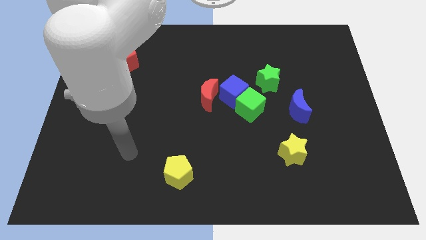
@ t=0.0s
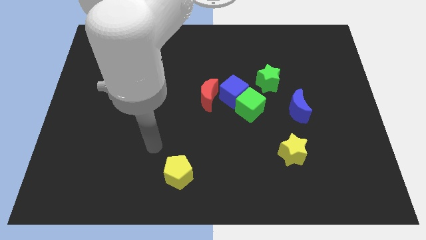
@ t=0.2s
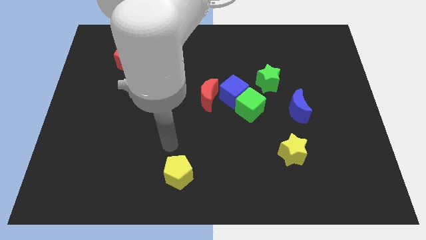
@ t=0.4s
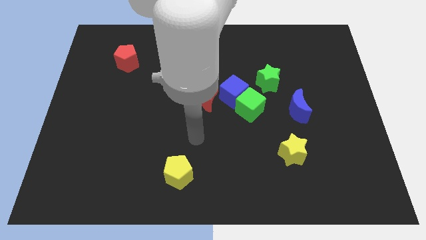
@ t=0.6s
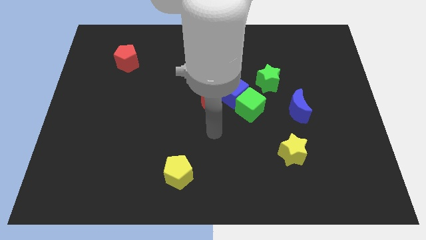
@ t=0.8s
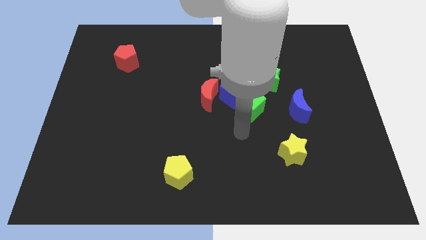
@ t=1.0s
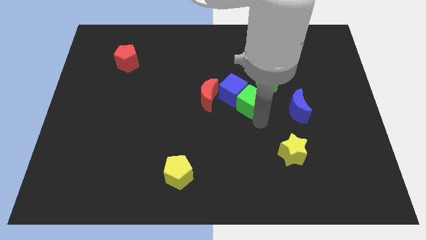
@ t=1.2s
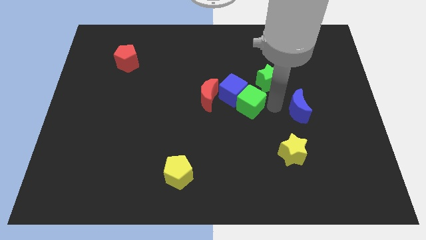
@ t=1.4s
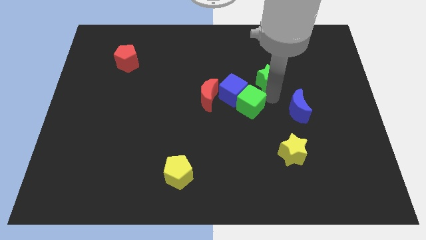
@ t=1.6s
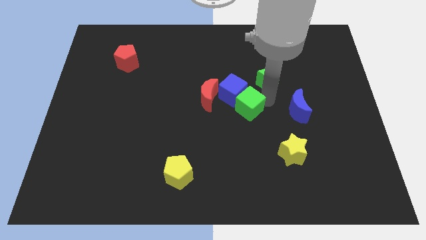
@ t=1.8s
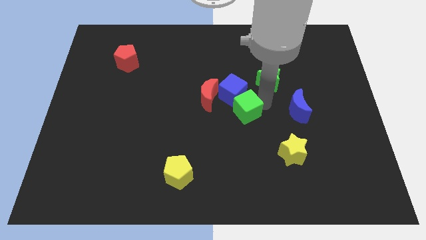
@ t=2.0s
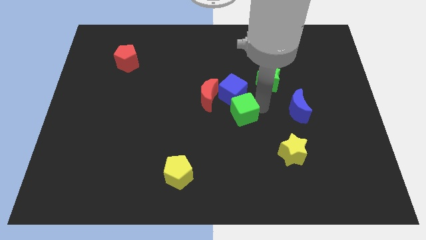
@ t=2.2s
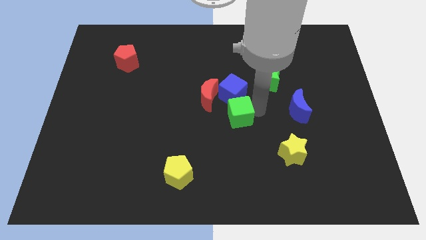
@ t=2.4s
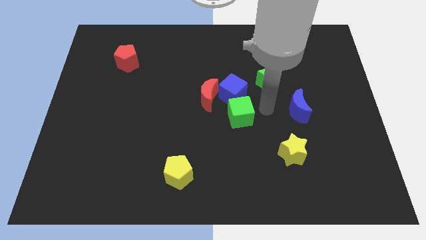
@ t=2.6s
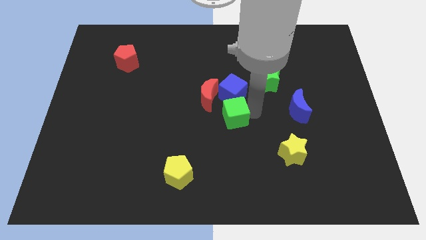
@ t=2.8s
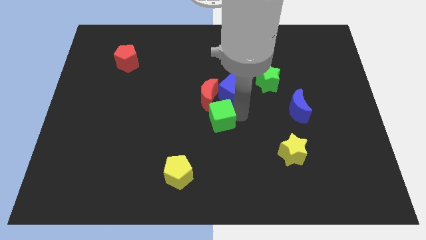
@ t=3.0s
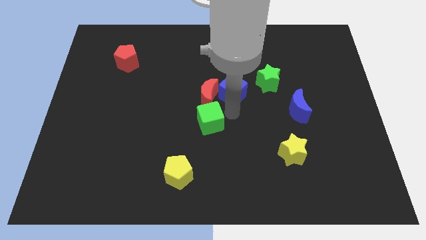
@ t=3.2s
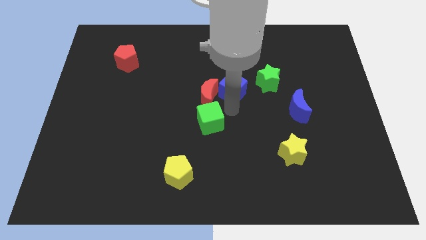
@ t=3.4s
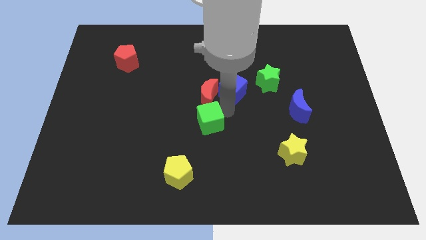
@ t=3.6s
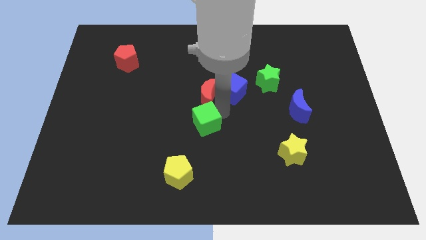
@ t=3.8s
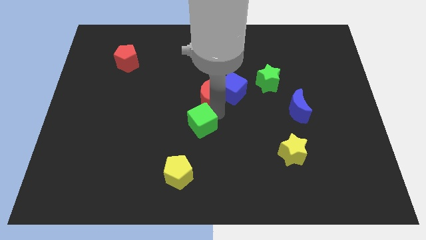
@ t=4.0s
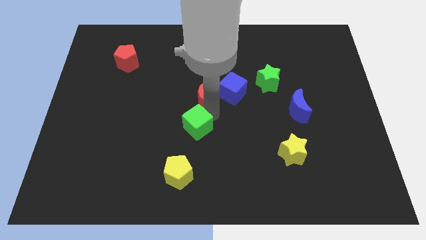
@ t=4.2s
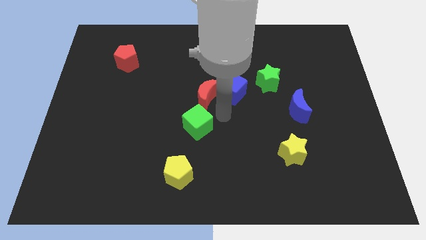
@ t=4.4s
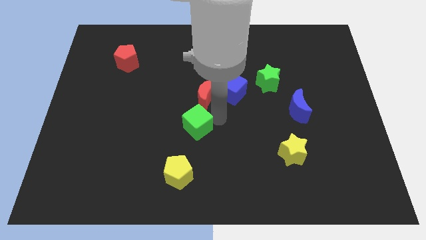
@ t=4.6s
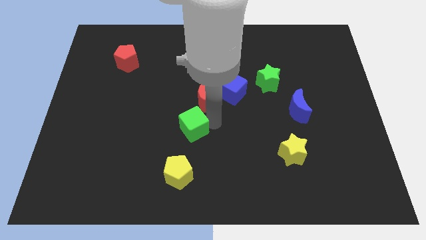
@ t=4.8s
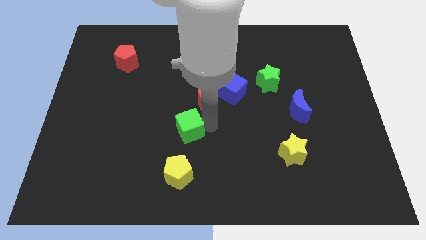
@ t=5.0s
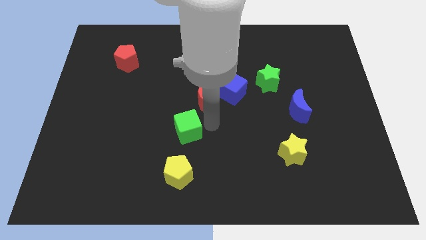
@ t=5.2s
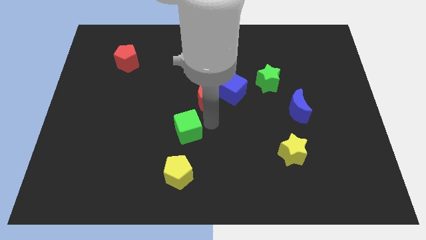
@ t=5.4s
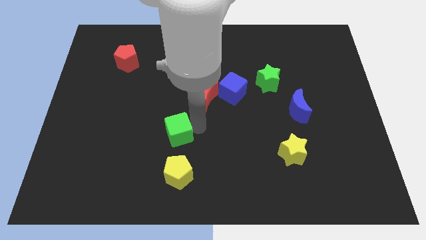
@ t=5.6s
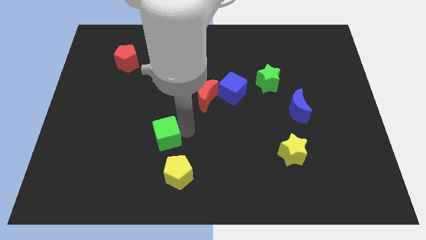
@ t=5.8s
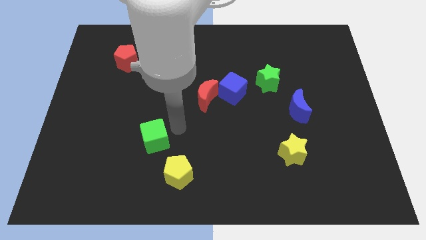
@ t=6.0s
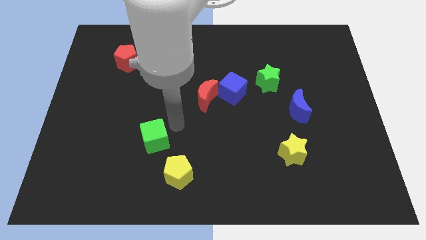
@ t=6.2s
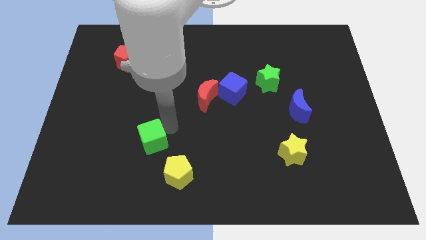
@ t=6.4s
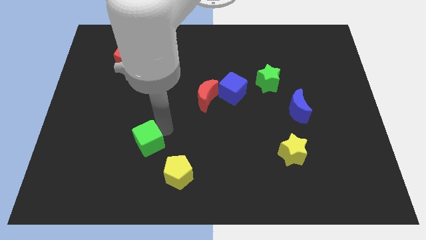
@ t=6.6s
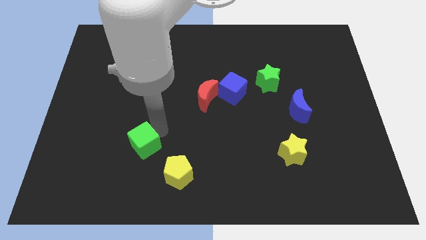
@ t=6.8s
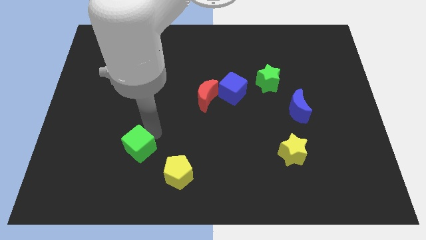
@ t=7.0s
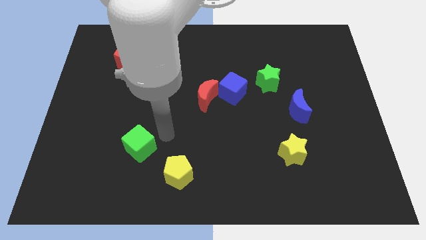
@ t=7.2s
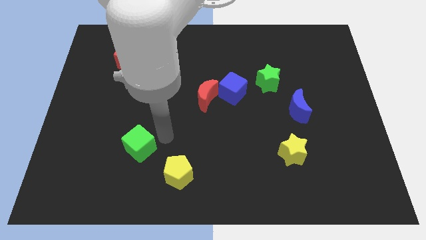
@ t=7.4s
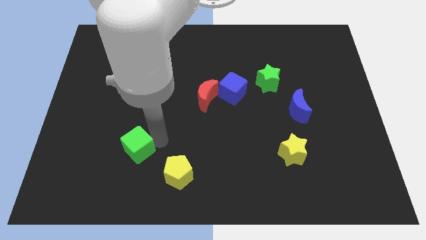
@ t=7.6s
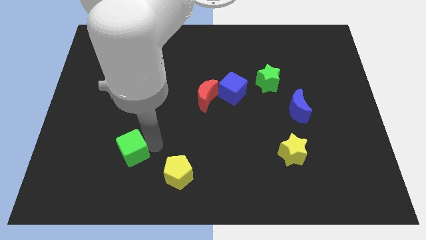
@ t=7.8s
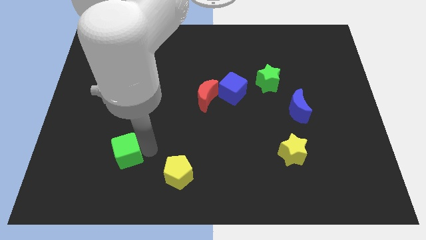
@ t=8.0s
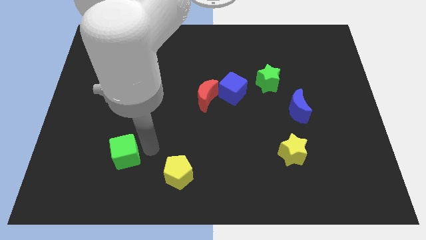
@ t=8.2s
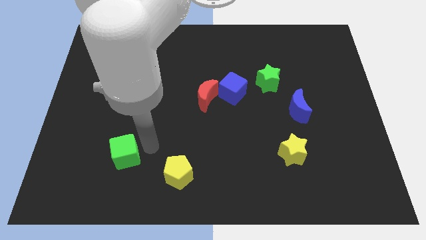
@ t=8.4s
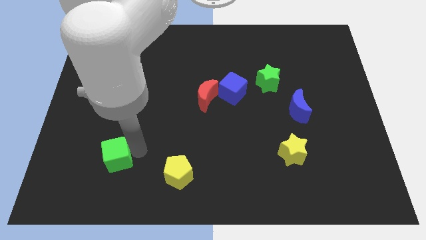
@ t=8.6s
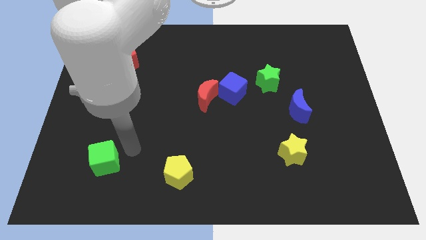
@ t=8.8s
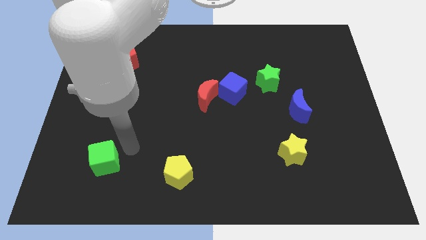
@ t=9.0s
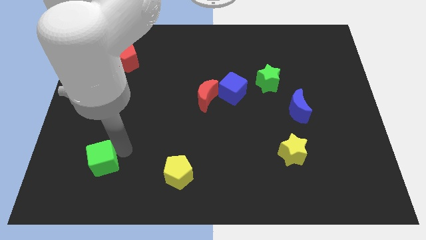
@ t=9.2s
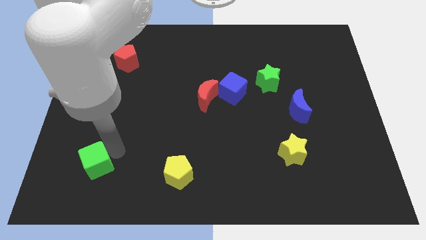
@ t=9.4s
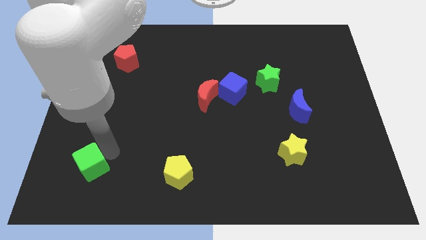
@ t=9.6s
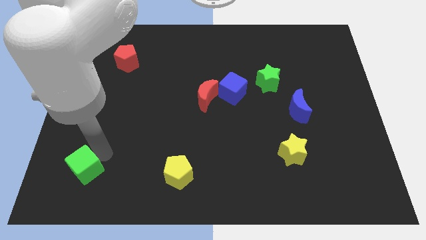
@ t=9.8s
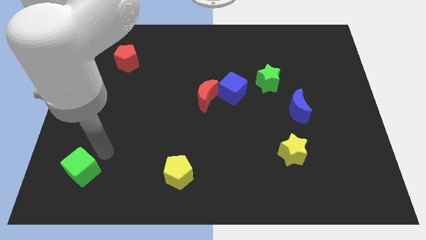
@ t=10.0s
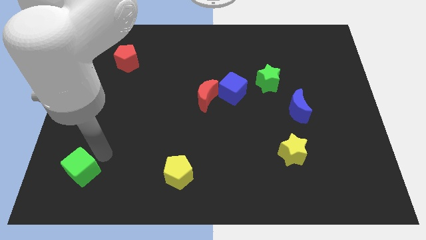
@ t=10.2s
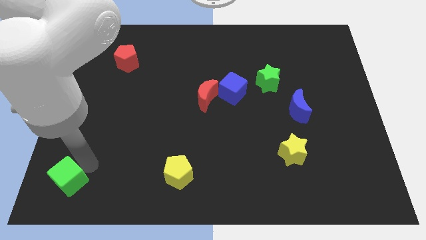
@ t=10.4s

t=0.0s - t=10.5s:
push the green cube to the lower left corner

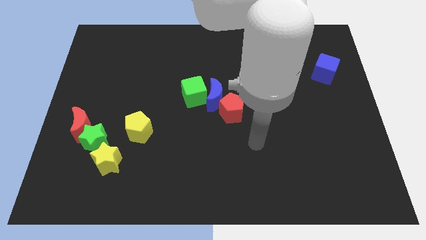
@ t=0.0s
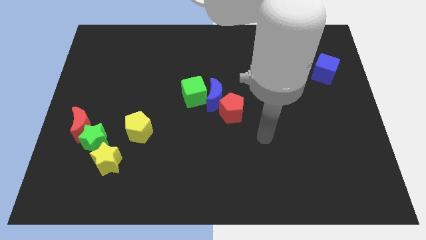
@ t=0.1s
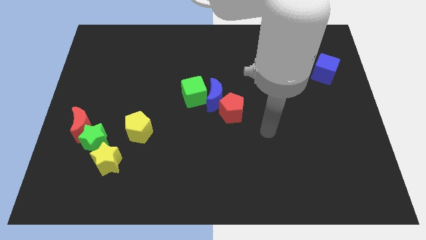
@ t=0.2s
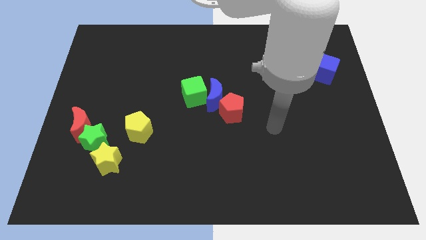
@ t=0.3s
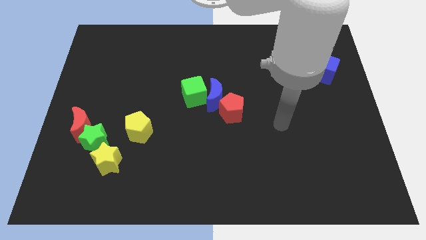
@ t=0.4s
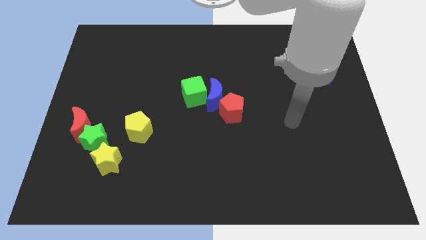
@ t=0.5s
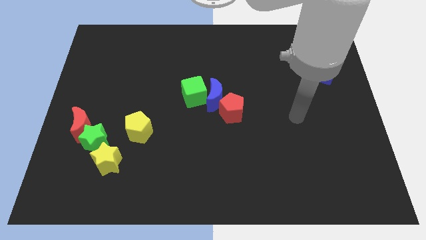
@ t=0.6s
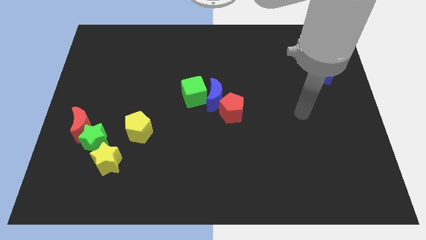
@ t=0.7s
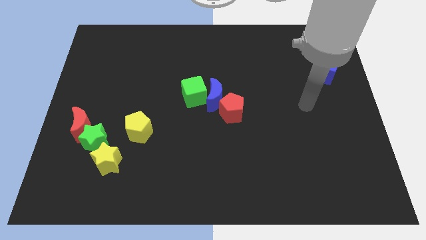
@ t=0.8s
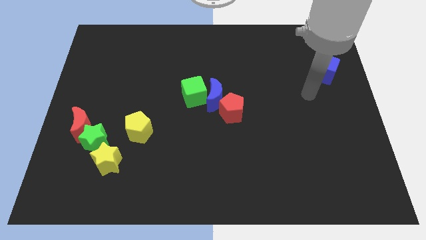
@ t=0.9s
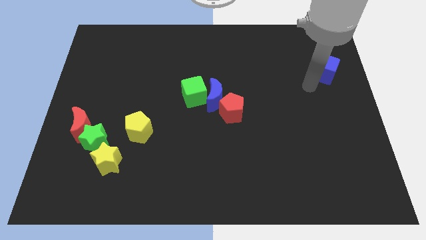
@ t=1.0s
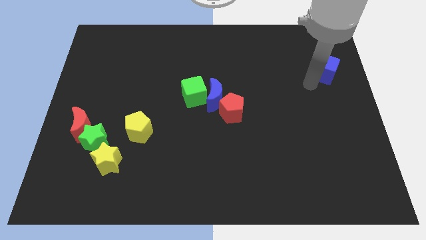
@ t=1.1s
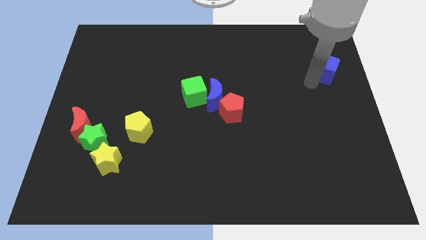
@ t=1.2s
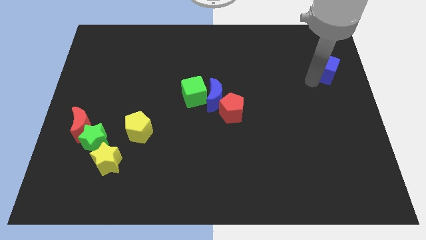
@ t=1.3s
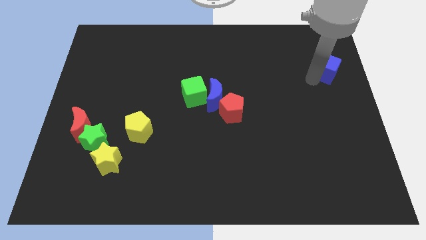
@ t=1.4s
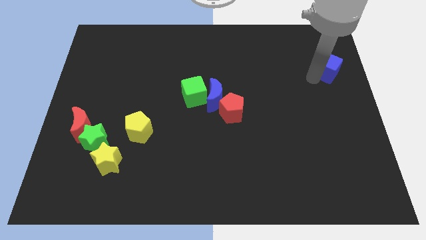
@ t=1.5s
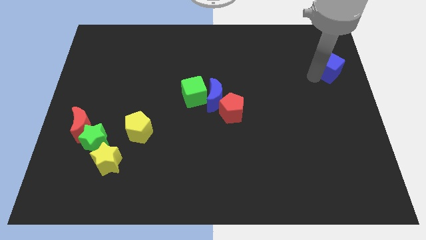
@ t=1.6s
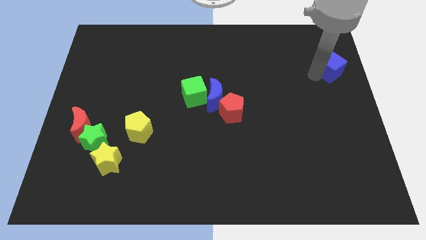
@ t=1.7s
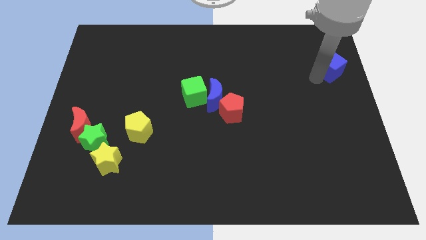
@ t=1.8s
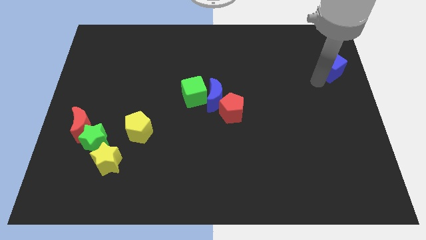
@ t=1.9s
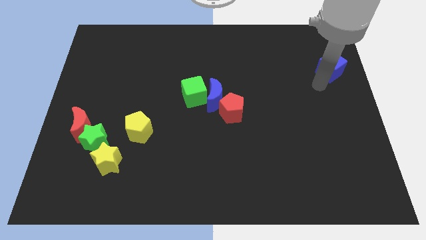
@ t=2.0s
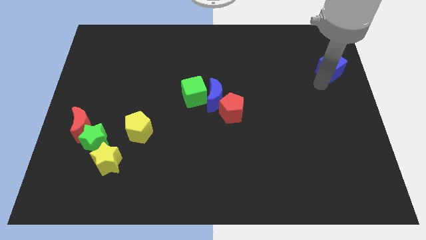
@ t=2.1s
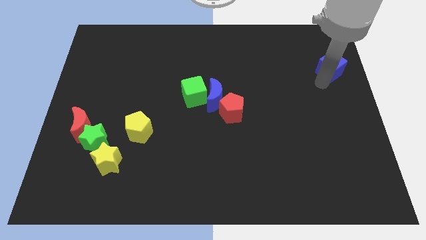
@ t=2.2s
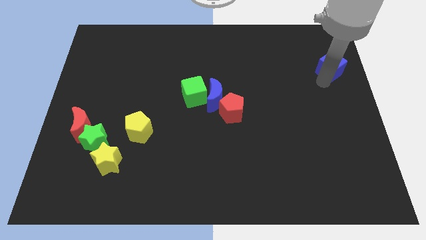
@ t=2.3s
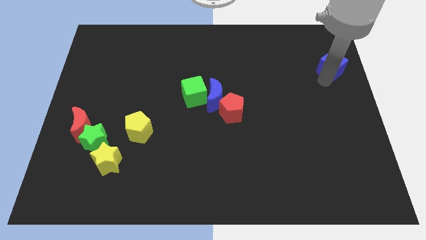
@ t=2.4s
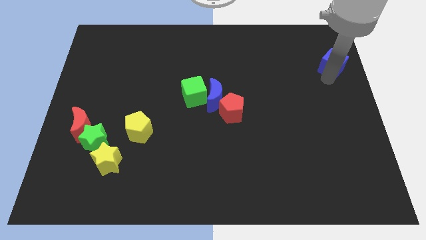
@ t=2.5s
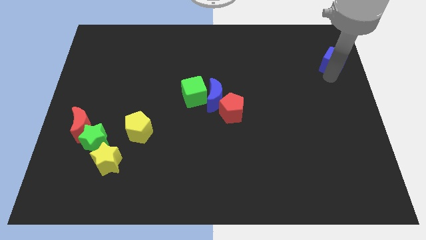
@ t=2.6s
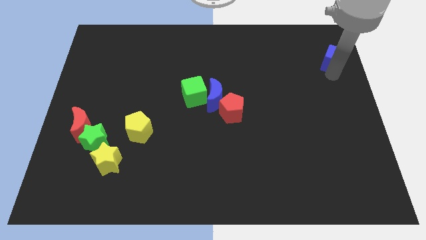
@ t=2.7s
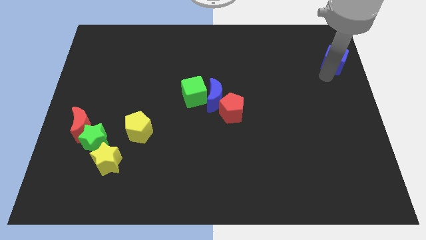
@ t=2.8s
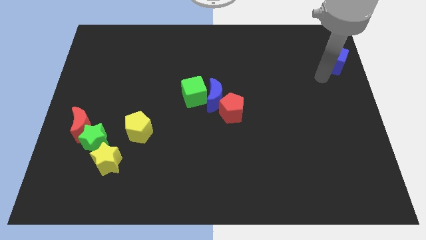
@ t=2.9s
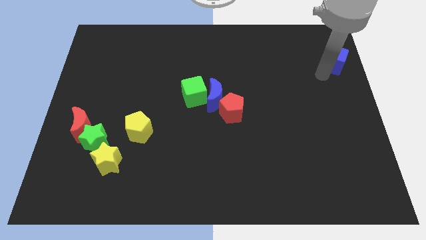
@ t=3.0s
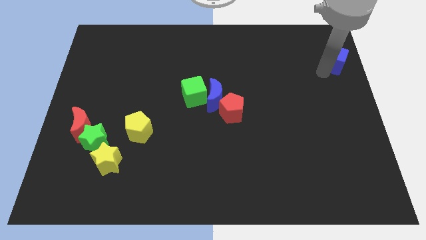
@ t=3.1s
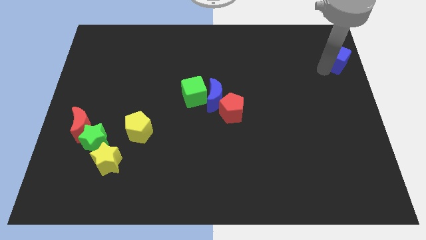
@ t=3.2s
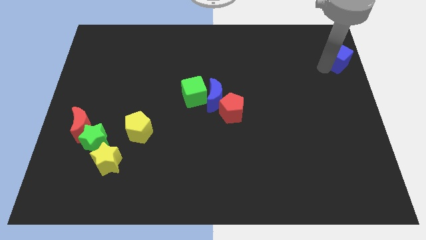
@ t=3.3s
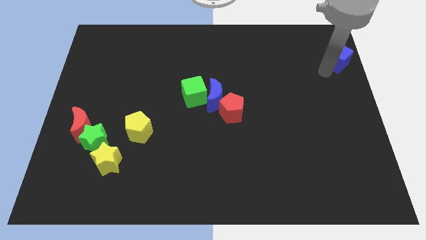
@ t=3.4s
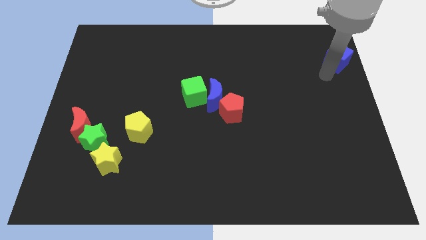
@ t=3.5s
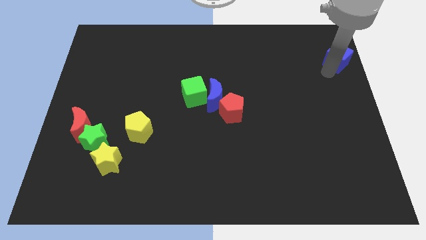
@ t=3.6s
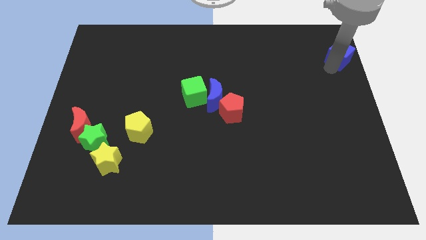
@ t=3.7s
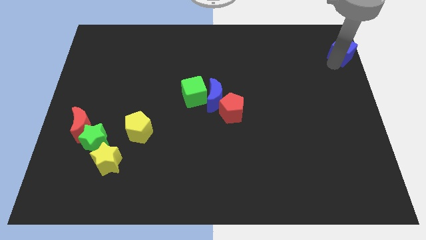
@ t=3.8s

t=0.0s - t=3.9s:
push the blue cube to the top right corner
